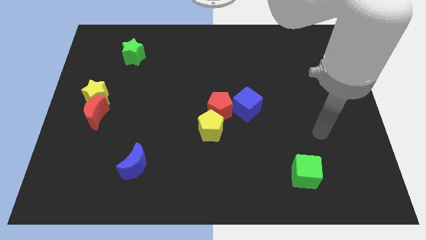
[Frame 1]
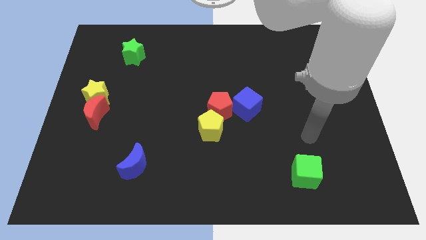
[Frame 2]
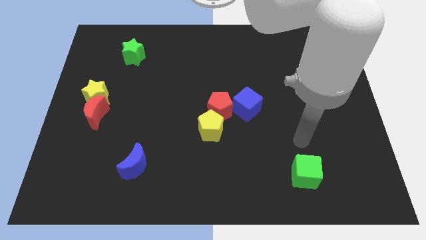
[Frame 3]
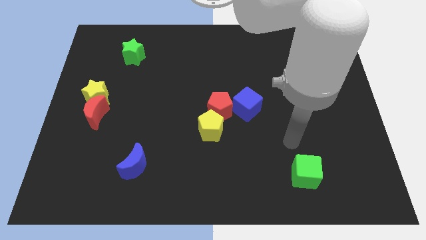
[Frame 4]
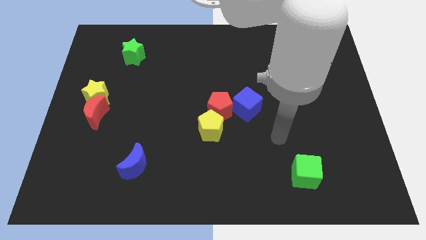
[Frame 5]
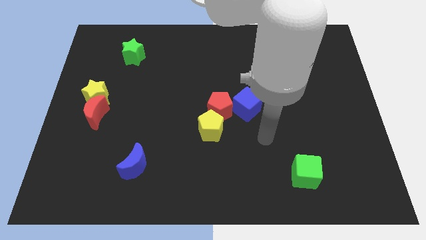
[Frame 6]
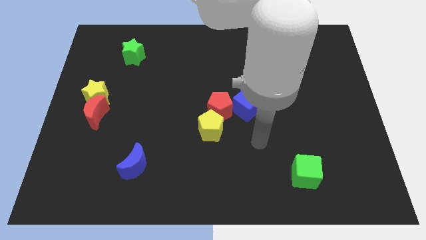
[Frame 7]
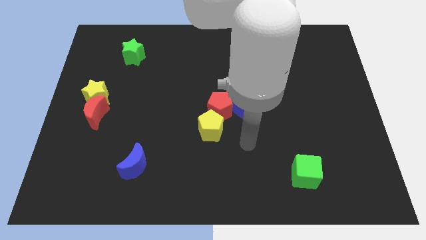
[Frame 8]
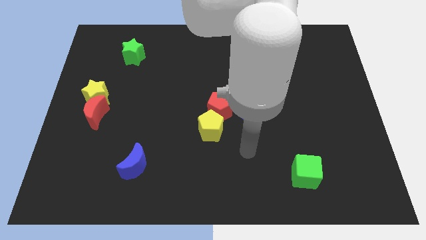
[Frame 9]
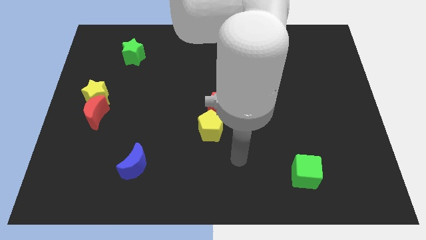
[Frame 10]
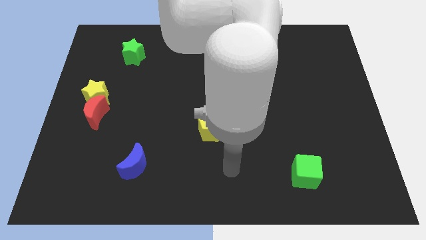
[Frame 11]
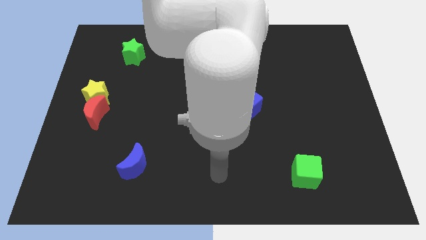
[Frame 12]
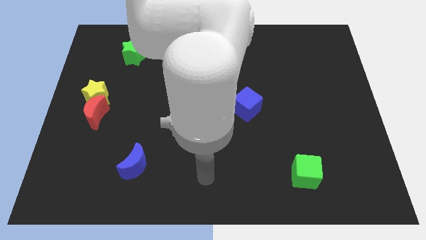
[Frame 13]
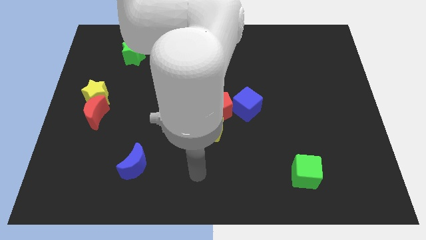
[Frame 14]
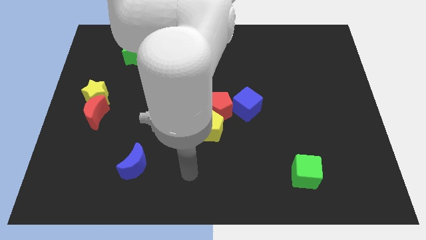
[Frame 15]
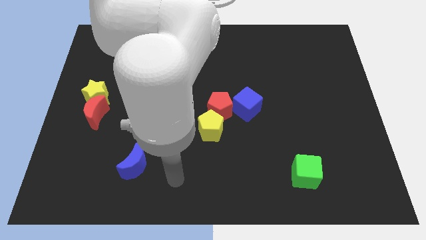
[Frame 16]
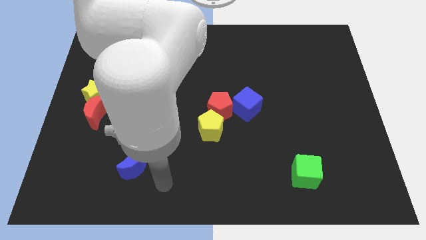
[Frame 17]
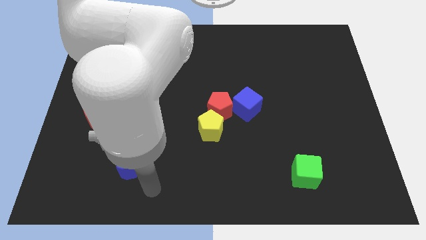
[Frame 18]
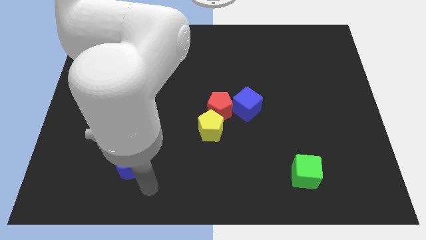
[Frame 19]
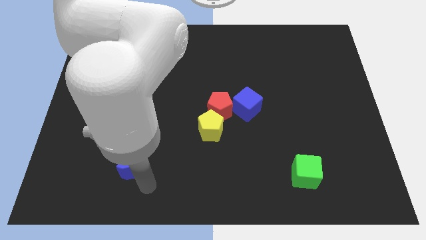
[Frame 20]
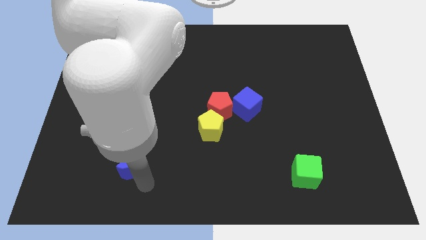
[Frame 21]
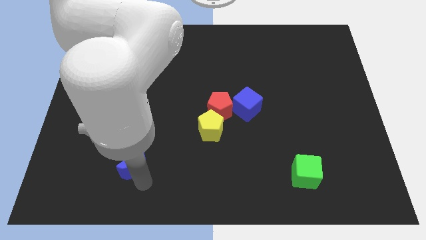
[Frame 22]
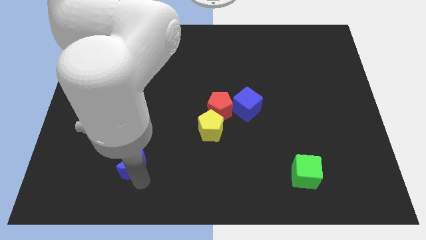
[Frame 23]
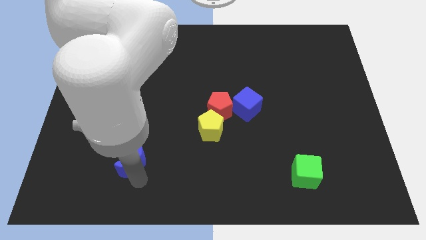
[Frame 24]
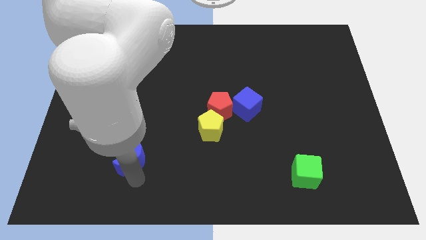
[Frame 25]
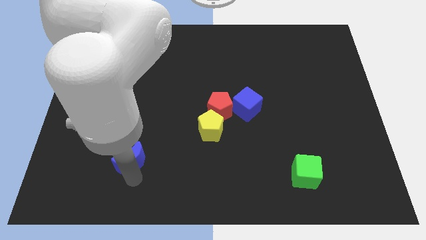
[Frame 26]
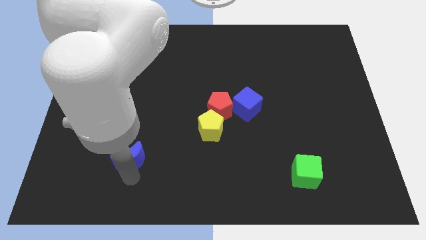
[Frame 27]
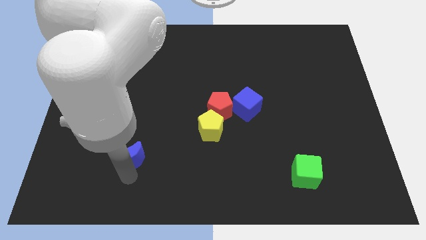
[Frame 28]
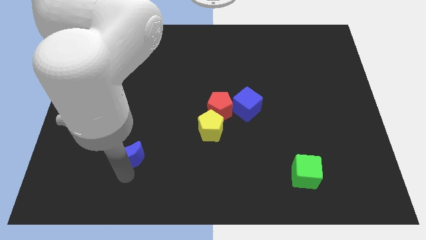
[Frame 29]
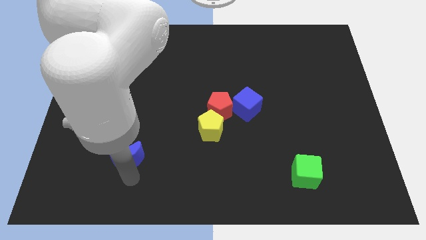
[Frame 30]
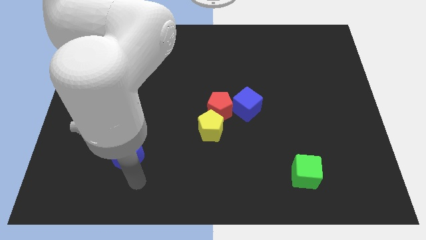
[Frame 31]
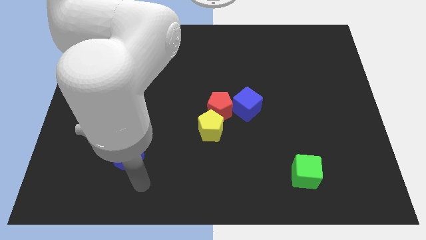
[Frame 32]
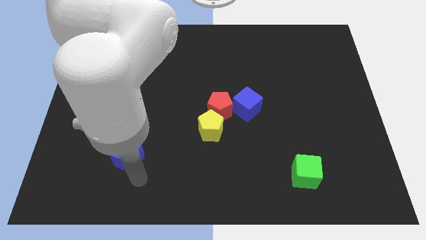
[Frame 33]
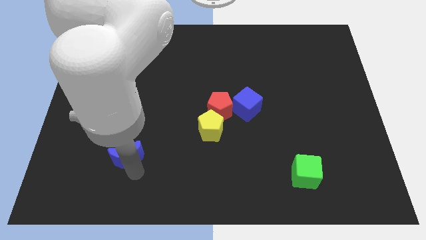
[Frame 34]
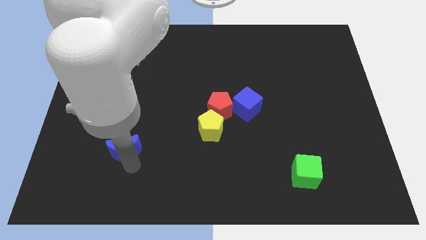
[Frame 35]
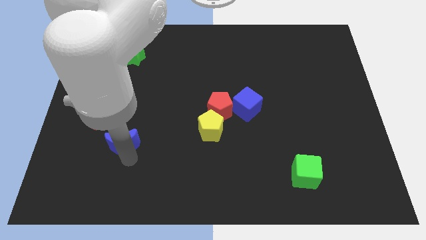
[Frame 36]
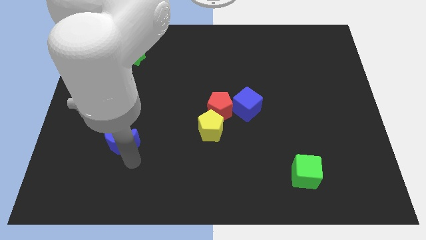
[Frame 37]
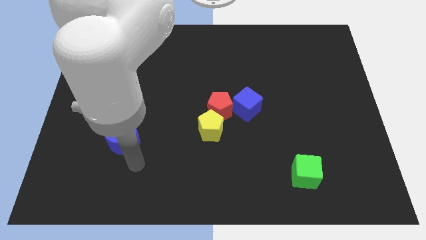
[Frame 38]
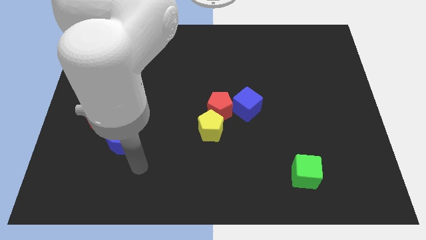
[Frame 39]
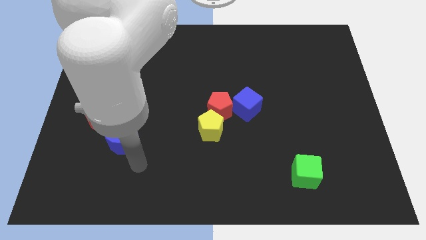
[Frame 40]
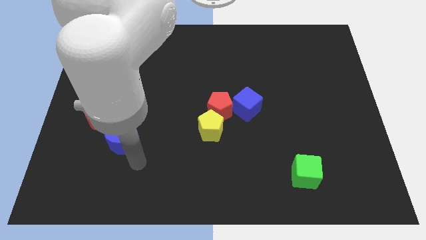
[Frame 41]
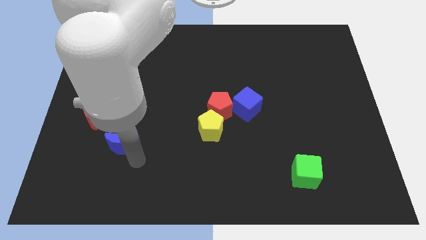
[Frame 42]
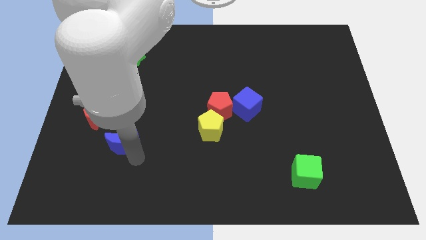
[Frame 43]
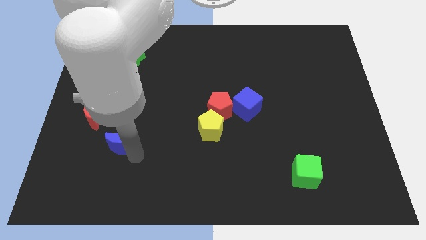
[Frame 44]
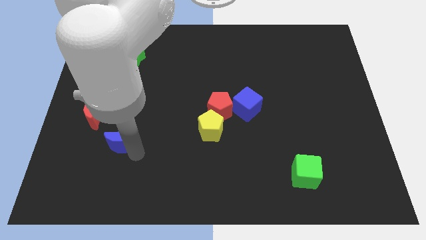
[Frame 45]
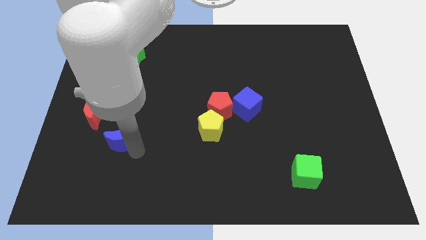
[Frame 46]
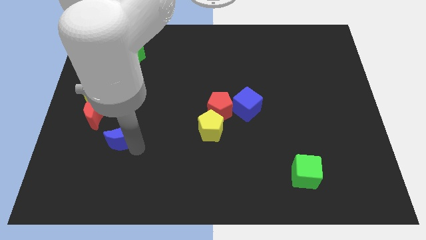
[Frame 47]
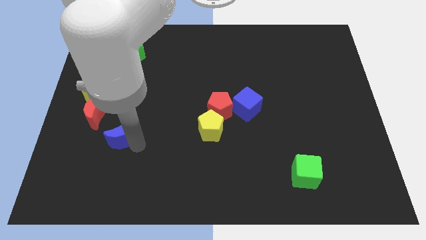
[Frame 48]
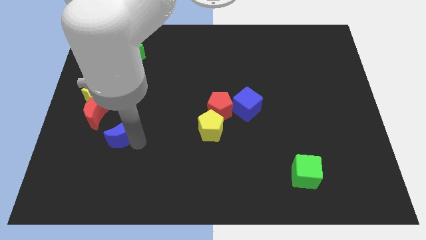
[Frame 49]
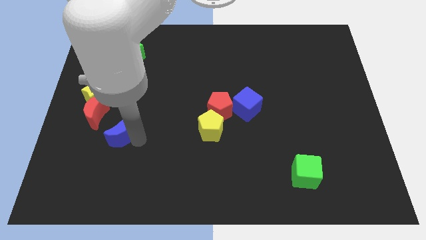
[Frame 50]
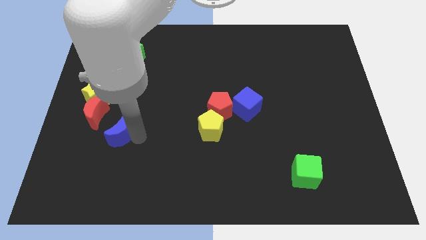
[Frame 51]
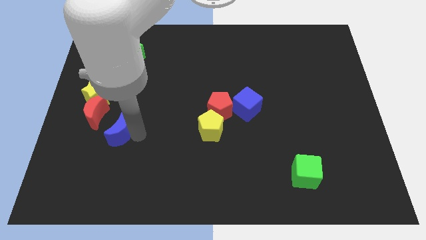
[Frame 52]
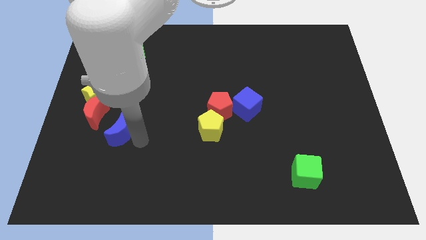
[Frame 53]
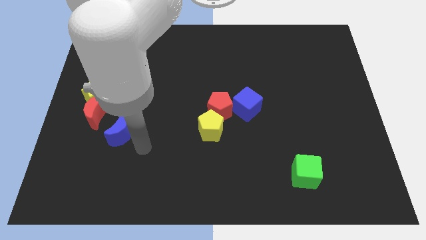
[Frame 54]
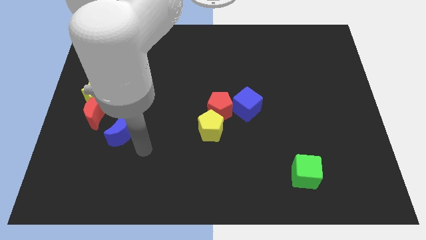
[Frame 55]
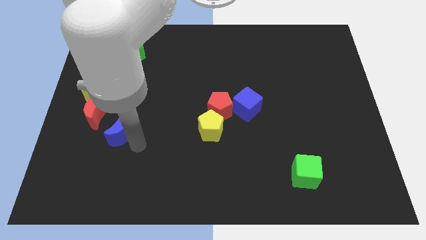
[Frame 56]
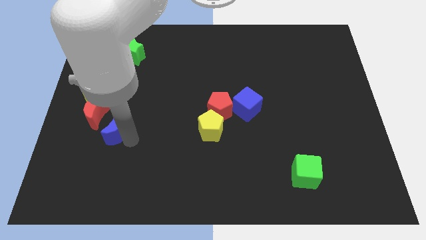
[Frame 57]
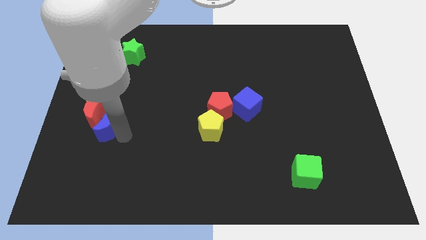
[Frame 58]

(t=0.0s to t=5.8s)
push the blue moon towards the red moon

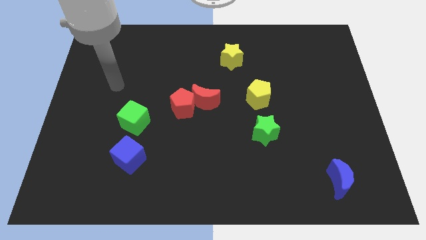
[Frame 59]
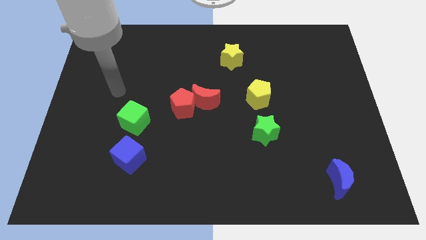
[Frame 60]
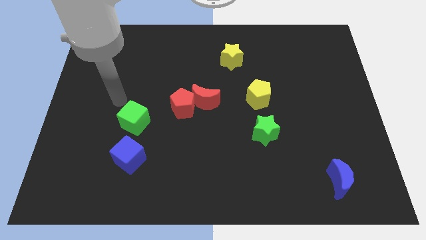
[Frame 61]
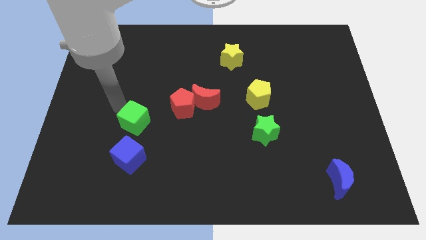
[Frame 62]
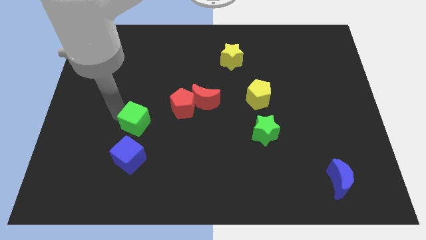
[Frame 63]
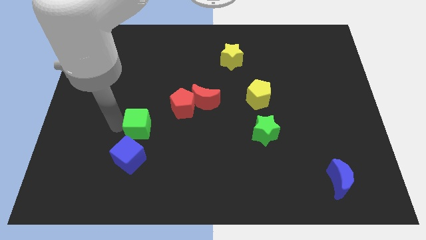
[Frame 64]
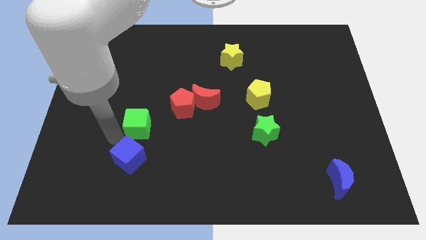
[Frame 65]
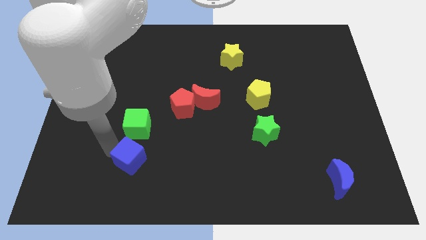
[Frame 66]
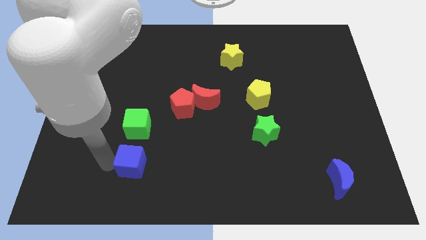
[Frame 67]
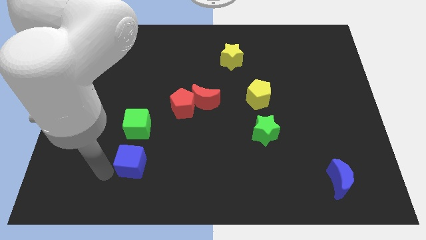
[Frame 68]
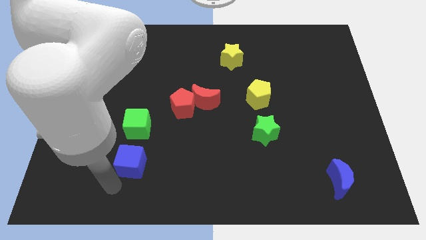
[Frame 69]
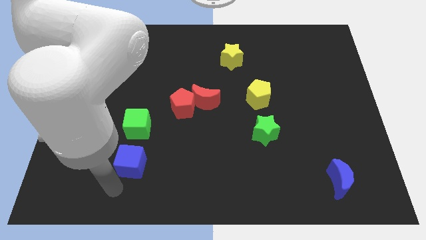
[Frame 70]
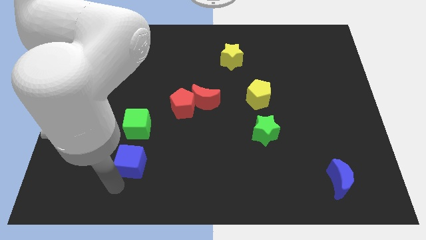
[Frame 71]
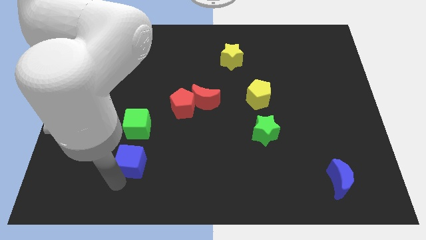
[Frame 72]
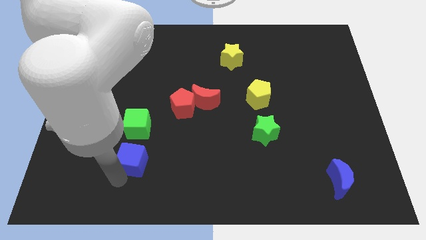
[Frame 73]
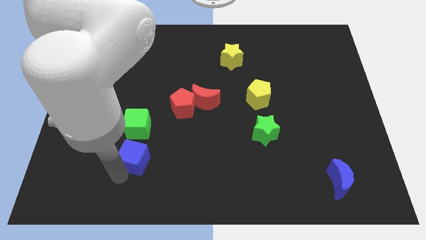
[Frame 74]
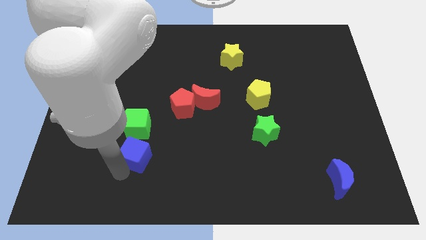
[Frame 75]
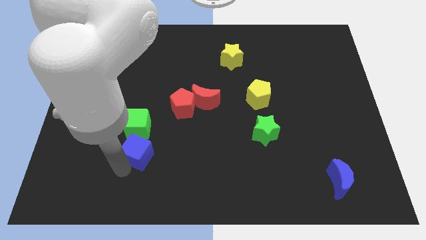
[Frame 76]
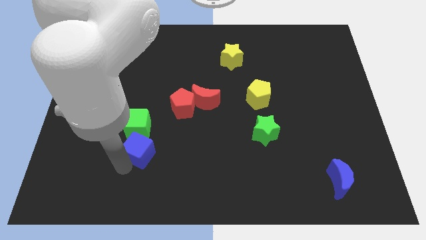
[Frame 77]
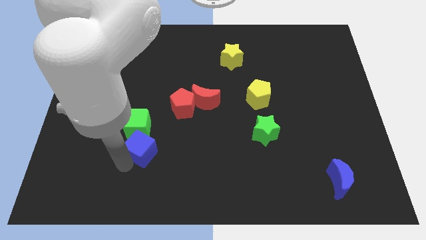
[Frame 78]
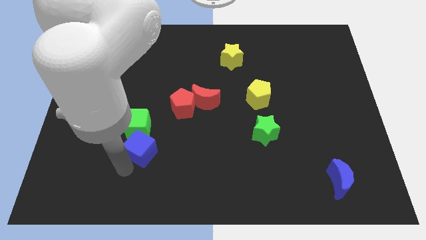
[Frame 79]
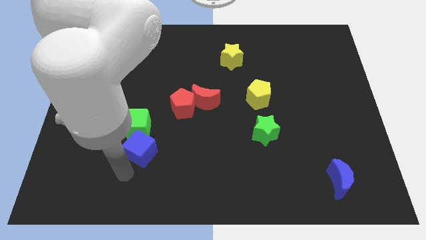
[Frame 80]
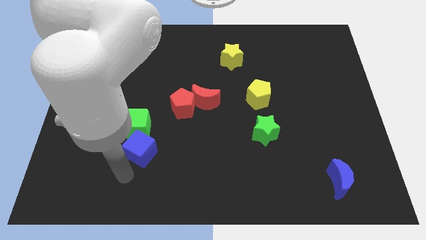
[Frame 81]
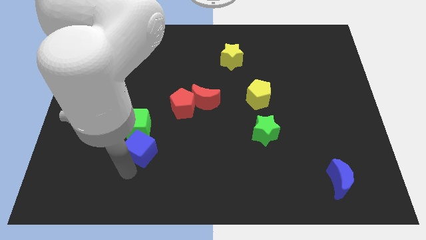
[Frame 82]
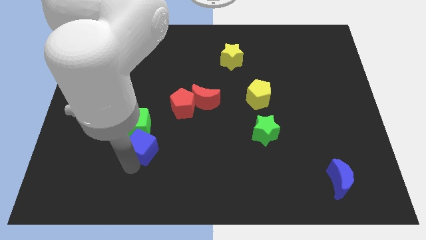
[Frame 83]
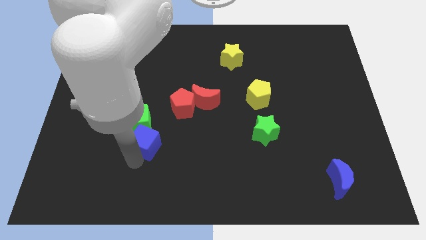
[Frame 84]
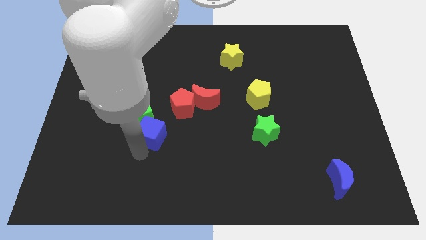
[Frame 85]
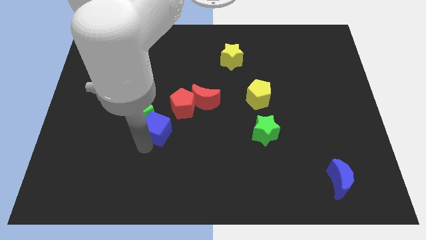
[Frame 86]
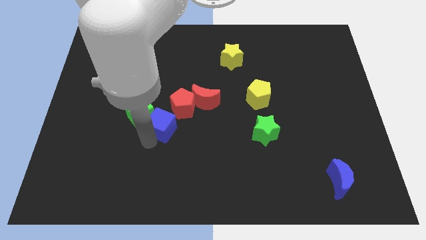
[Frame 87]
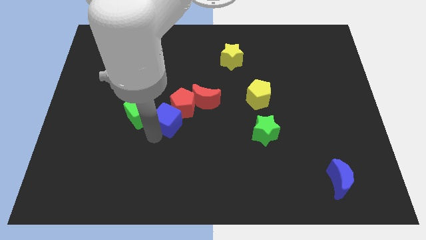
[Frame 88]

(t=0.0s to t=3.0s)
put the blue cube to the red pentagon
